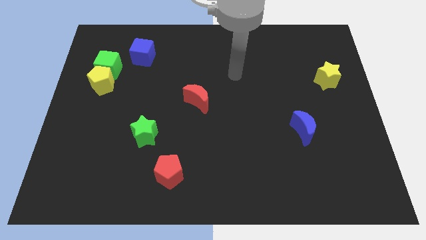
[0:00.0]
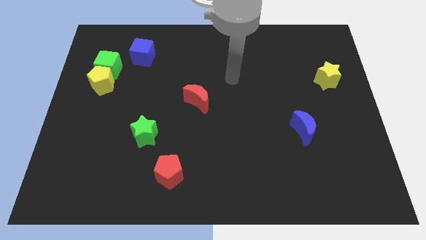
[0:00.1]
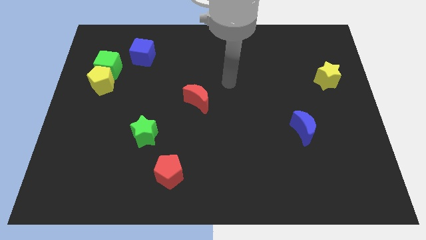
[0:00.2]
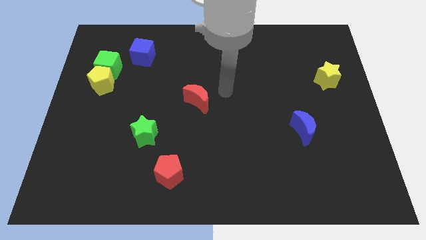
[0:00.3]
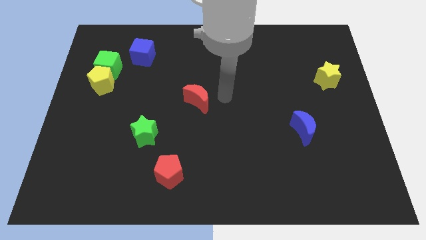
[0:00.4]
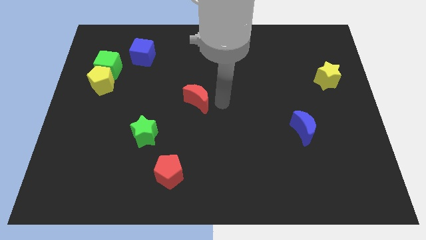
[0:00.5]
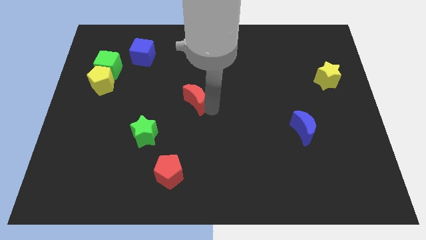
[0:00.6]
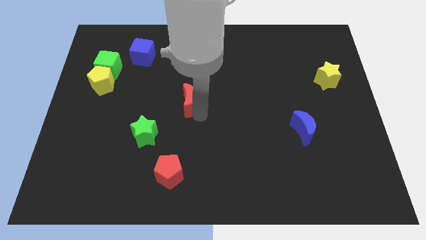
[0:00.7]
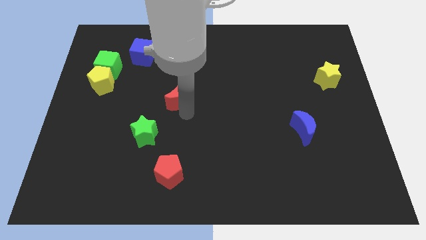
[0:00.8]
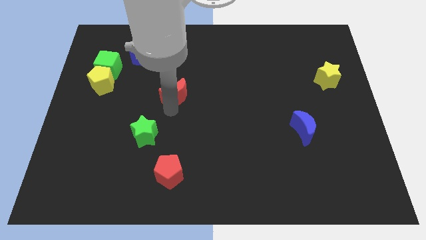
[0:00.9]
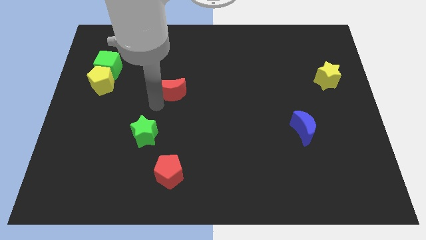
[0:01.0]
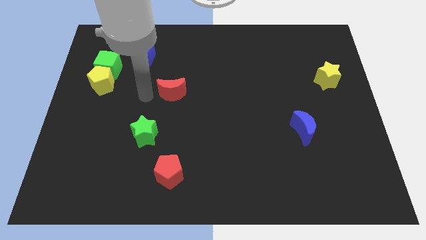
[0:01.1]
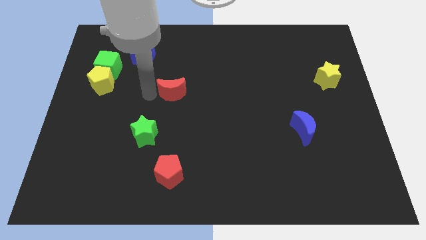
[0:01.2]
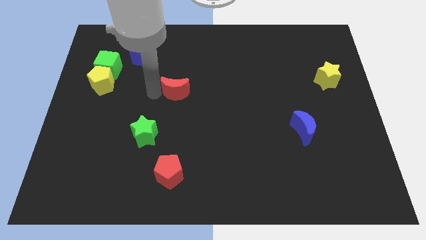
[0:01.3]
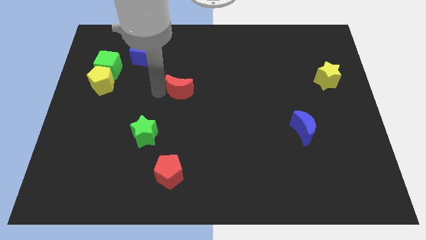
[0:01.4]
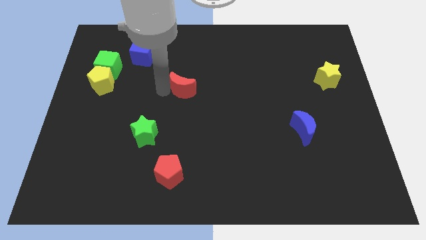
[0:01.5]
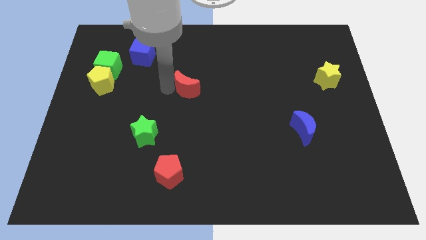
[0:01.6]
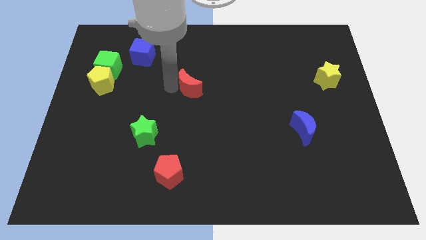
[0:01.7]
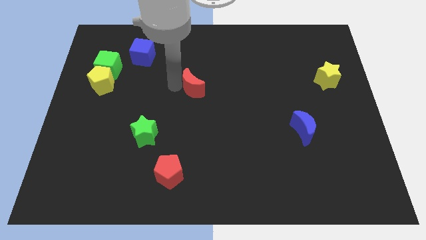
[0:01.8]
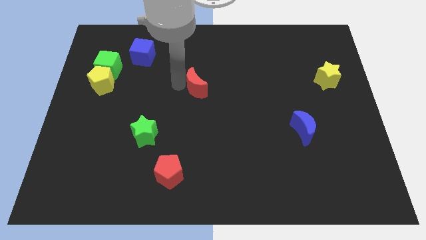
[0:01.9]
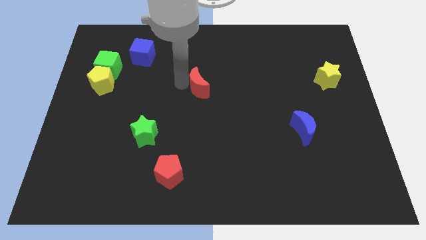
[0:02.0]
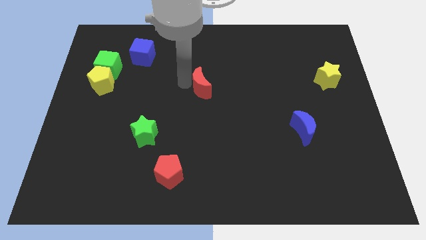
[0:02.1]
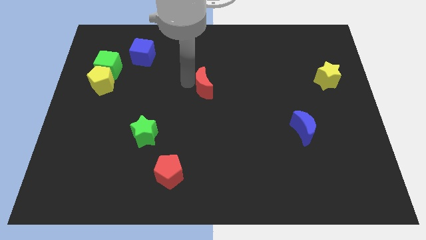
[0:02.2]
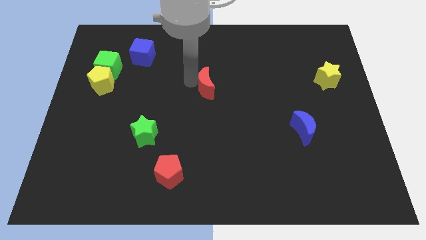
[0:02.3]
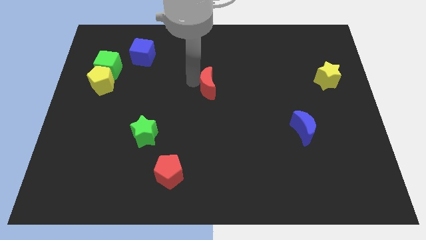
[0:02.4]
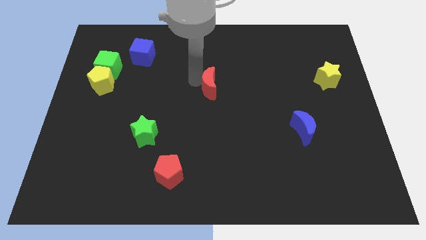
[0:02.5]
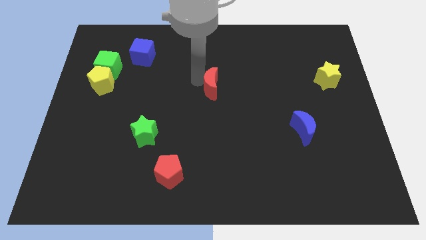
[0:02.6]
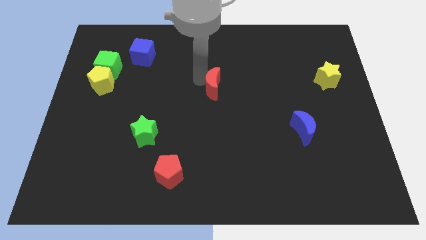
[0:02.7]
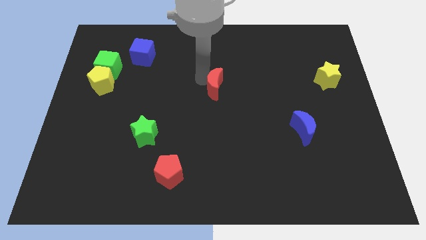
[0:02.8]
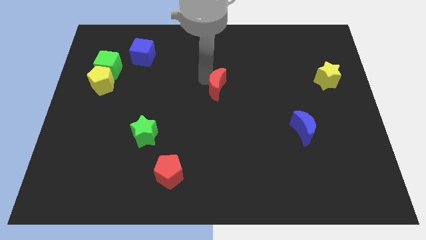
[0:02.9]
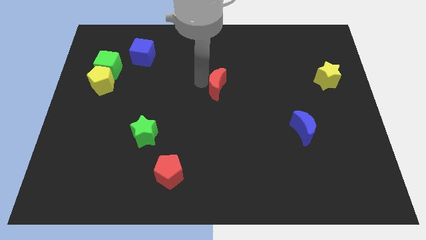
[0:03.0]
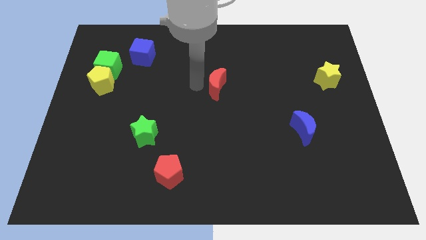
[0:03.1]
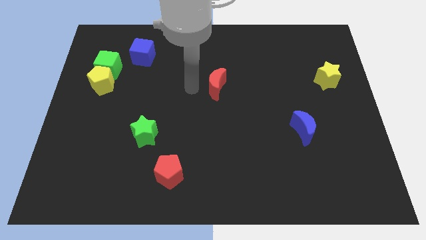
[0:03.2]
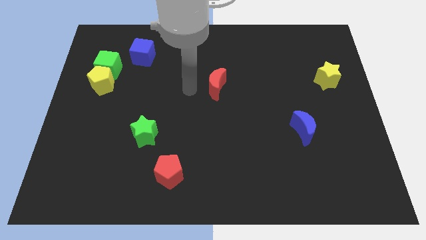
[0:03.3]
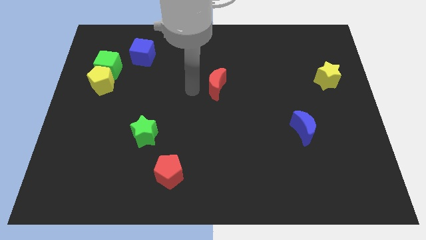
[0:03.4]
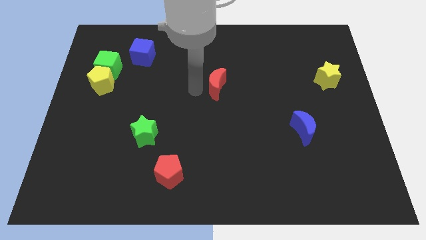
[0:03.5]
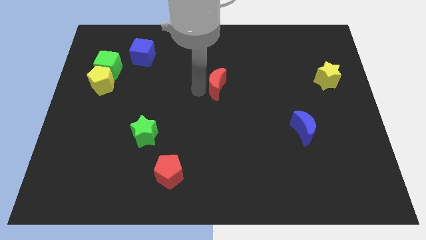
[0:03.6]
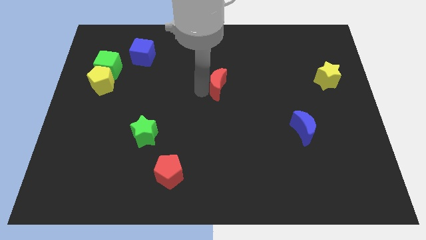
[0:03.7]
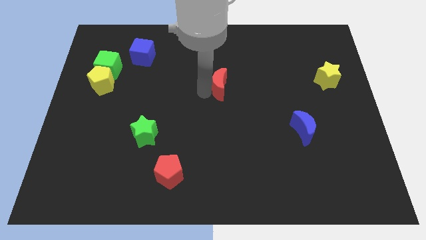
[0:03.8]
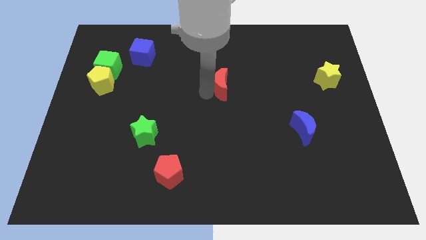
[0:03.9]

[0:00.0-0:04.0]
slightly slide the red moon up and to the right

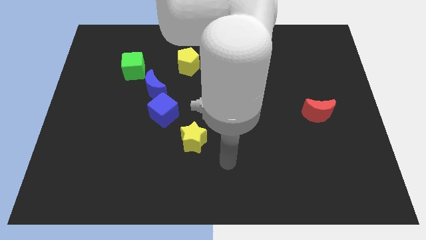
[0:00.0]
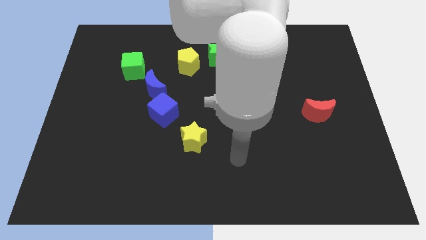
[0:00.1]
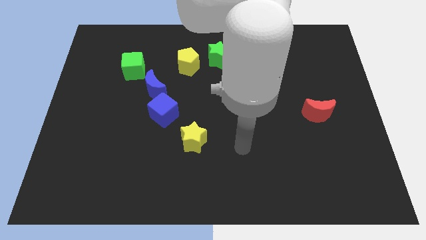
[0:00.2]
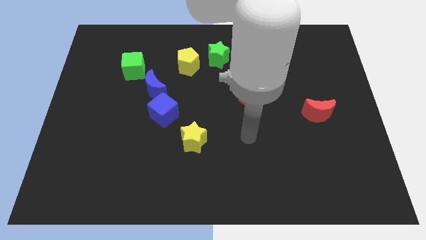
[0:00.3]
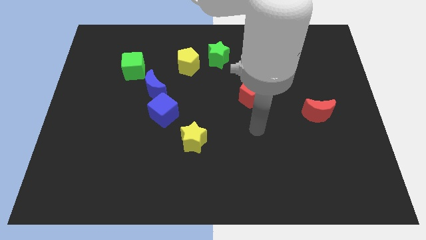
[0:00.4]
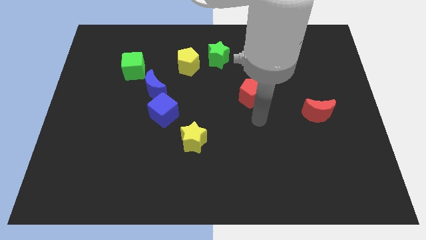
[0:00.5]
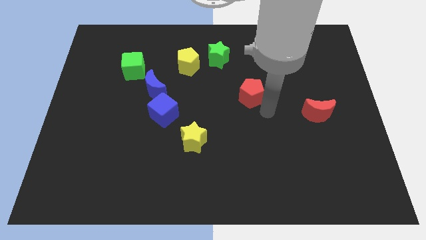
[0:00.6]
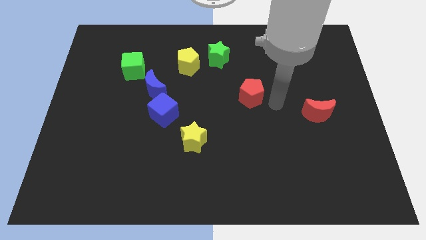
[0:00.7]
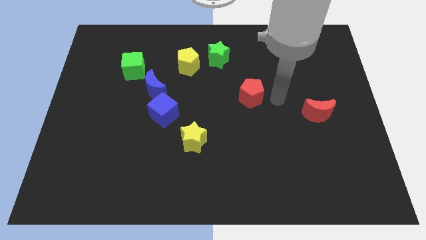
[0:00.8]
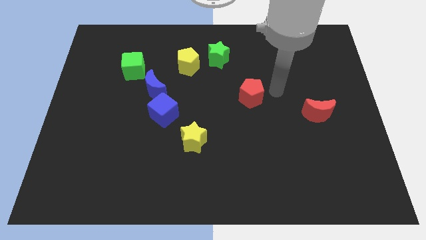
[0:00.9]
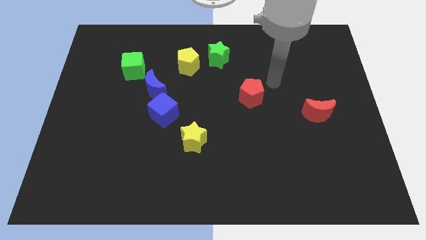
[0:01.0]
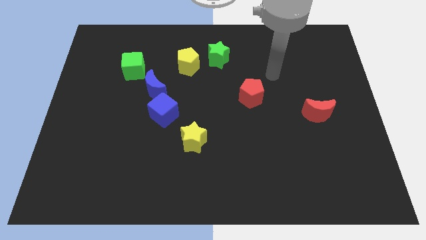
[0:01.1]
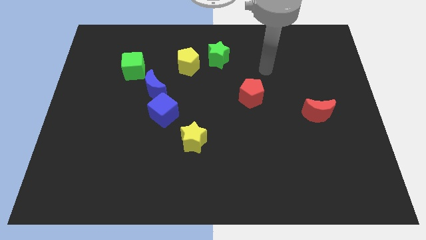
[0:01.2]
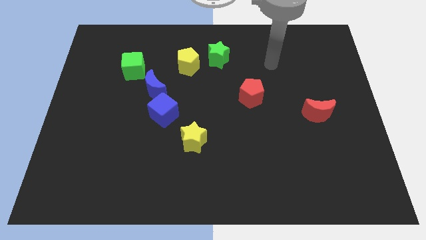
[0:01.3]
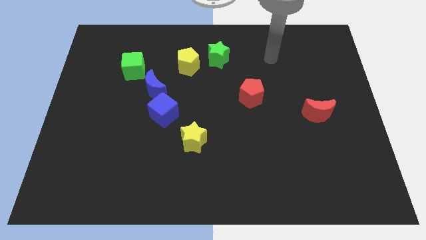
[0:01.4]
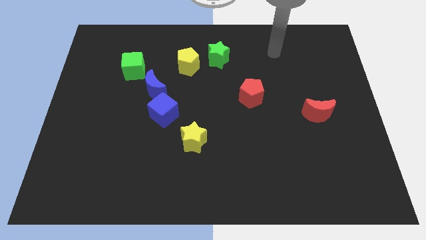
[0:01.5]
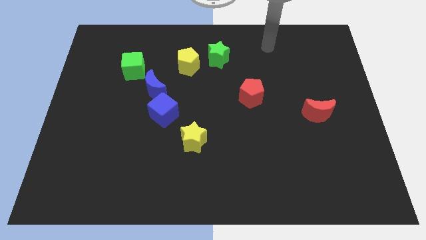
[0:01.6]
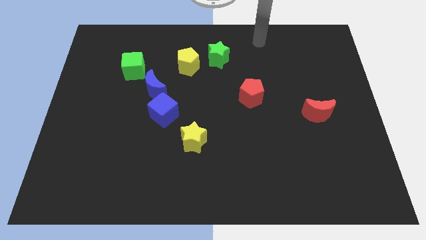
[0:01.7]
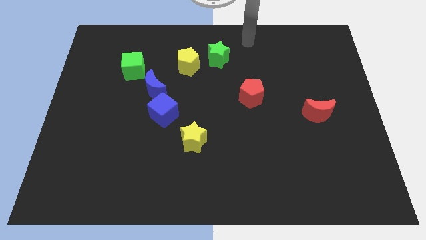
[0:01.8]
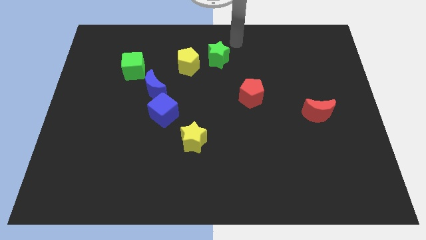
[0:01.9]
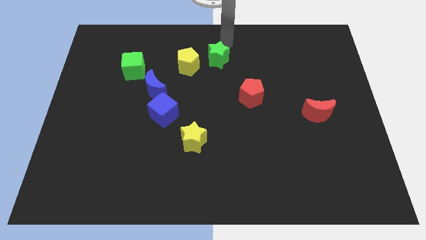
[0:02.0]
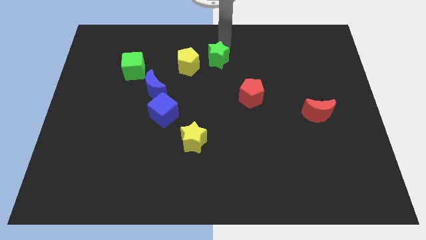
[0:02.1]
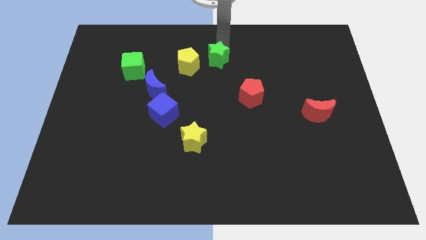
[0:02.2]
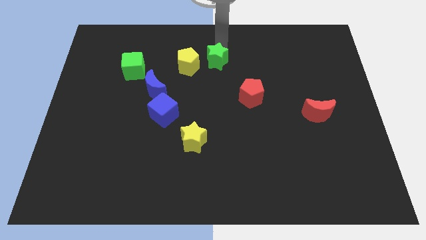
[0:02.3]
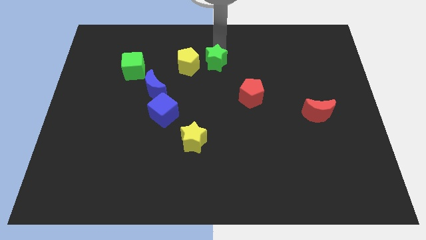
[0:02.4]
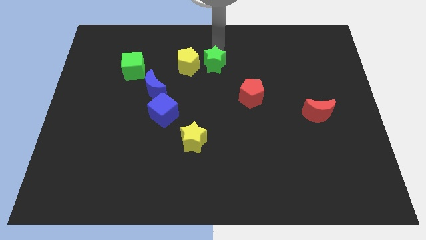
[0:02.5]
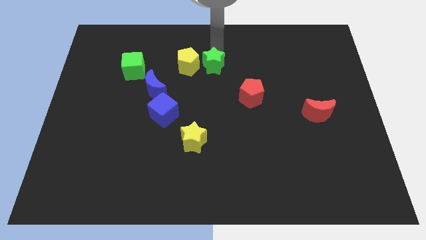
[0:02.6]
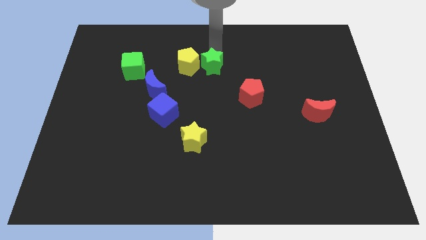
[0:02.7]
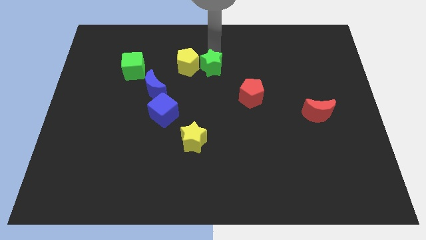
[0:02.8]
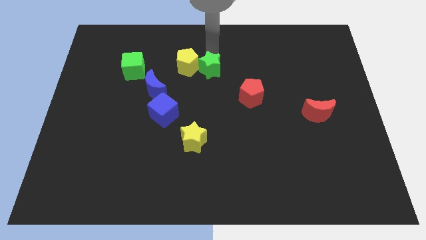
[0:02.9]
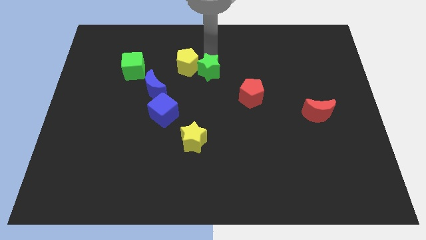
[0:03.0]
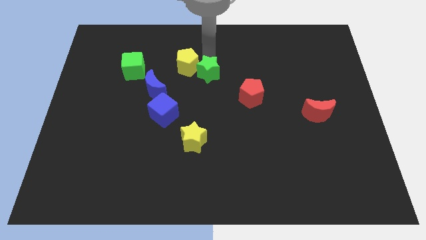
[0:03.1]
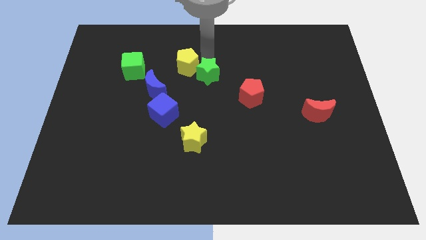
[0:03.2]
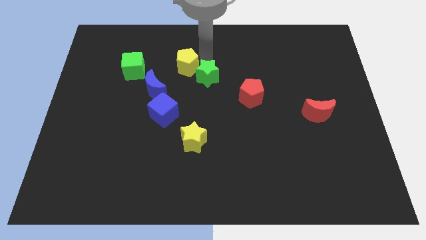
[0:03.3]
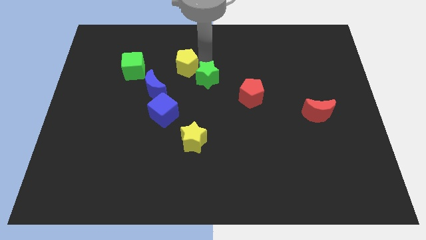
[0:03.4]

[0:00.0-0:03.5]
push the green star a bit down

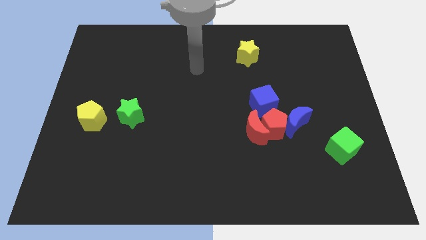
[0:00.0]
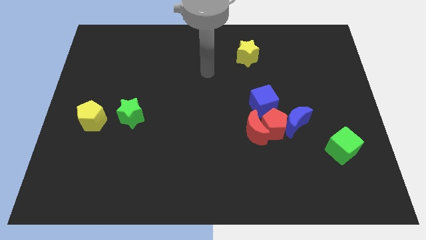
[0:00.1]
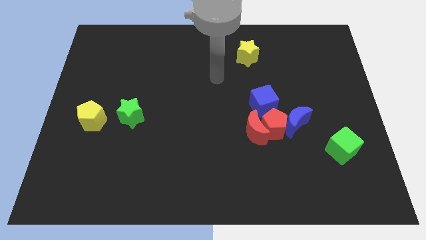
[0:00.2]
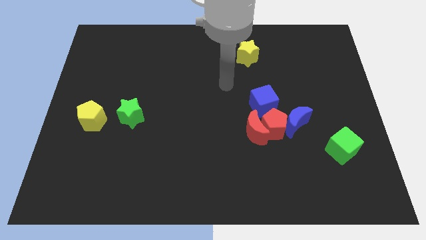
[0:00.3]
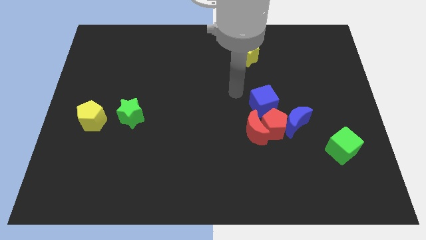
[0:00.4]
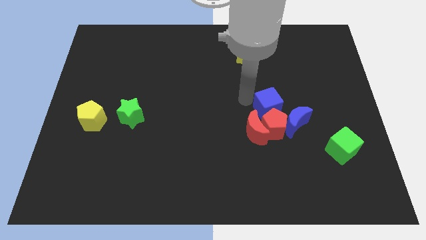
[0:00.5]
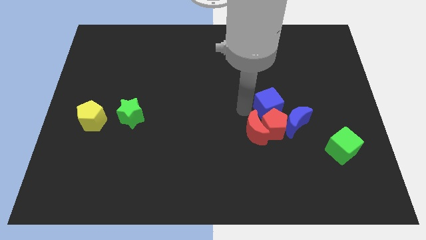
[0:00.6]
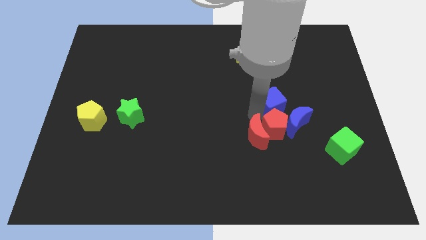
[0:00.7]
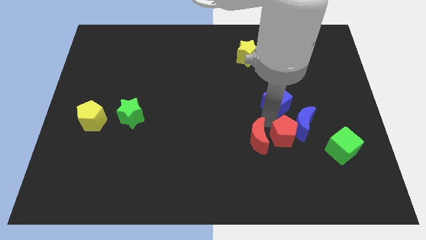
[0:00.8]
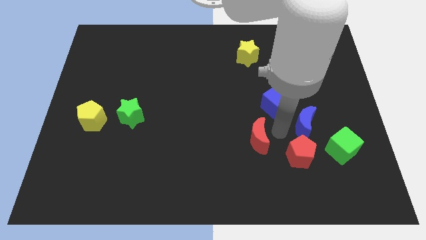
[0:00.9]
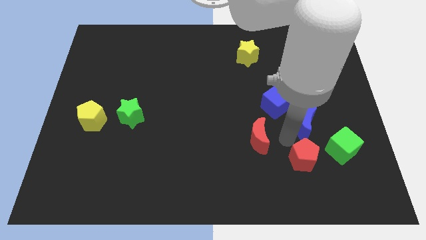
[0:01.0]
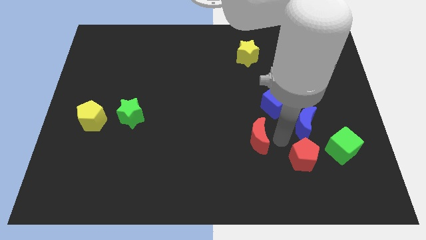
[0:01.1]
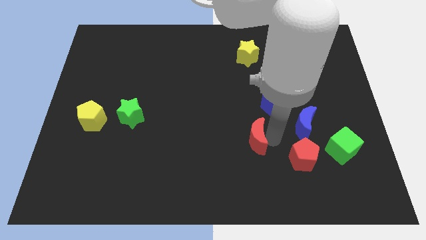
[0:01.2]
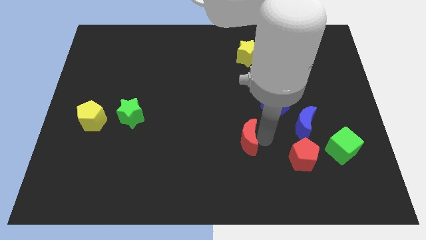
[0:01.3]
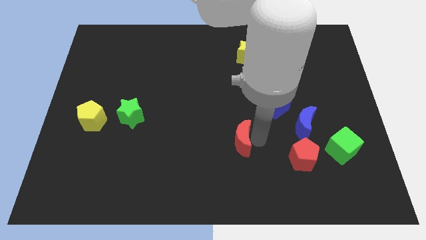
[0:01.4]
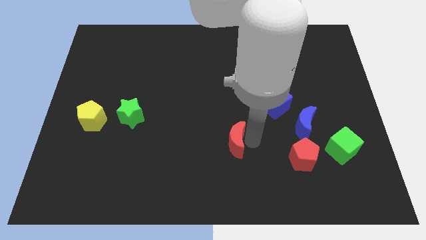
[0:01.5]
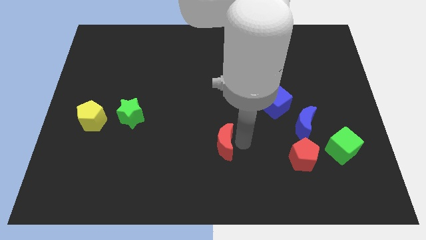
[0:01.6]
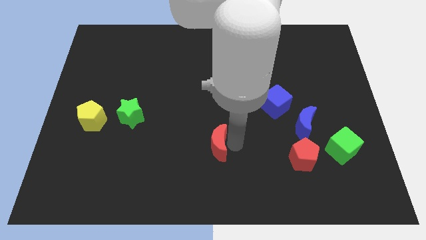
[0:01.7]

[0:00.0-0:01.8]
push the red moon a little to the left
